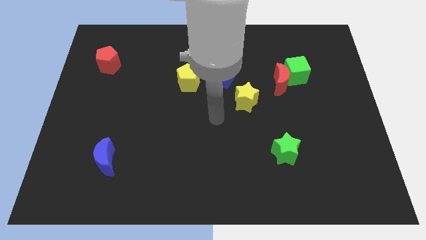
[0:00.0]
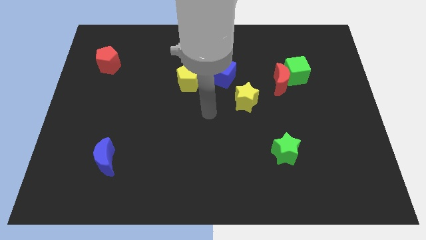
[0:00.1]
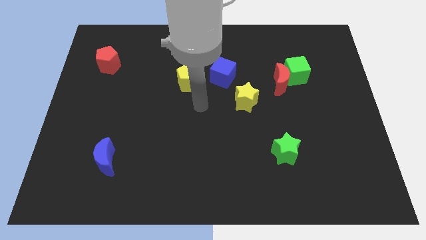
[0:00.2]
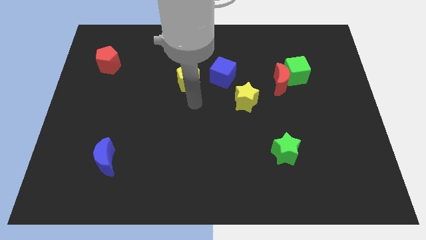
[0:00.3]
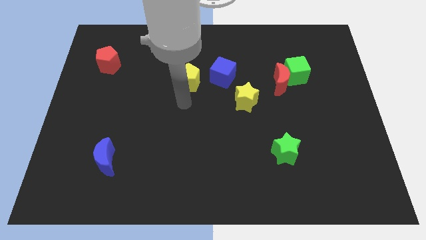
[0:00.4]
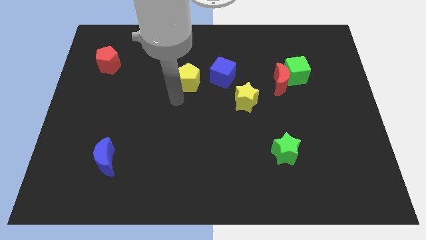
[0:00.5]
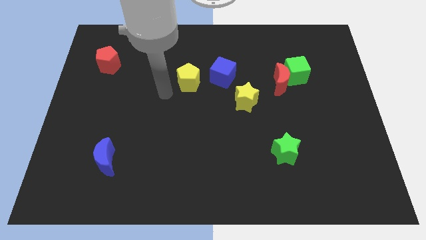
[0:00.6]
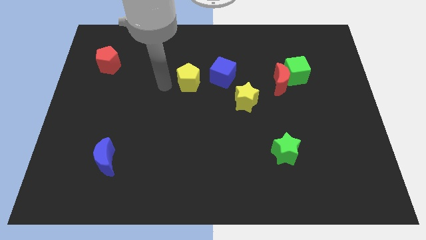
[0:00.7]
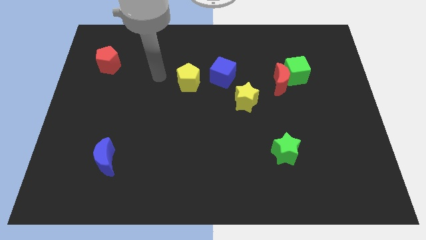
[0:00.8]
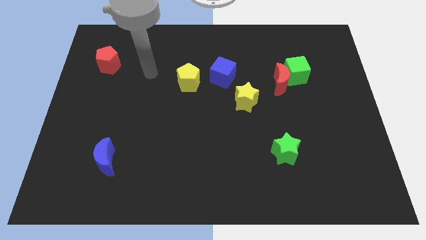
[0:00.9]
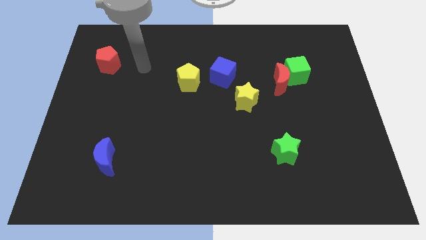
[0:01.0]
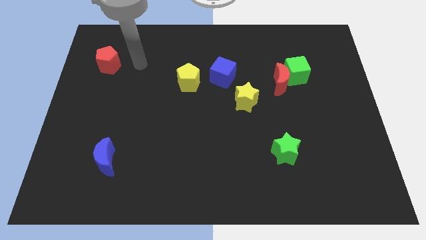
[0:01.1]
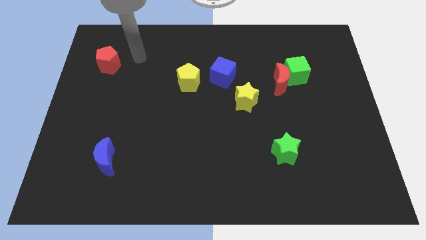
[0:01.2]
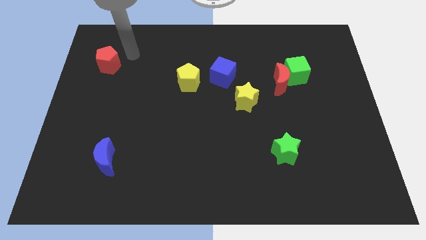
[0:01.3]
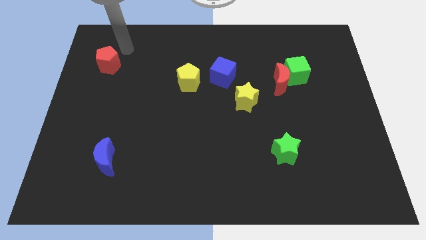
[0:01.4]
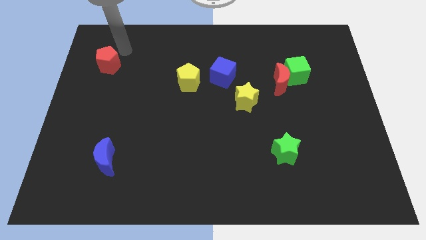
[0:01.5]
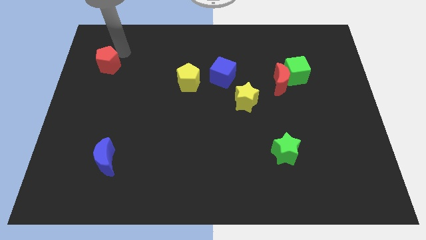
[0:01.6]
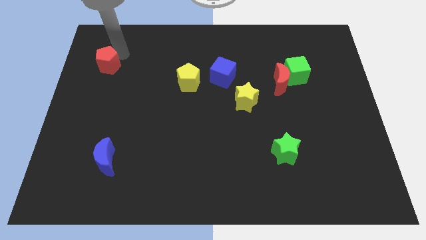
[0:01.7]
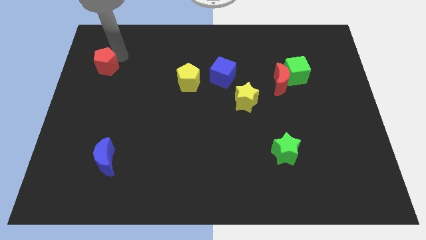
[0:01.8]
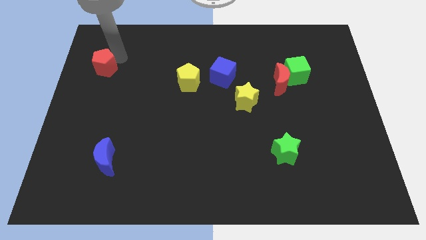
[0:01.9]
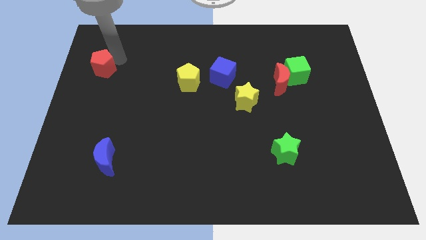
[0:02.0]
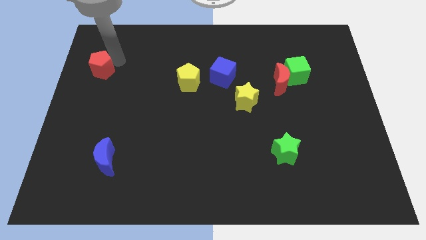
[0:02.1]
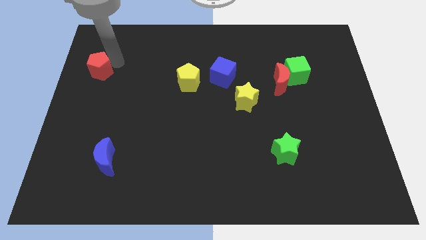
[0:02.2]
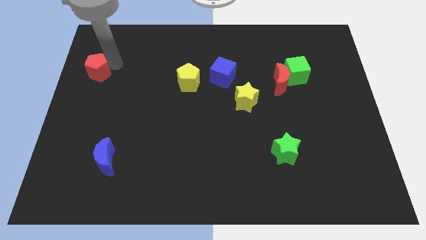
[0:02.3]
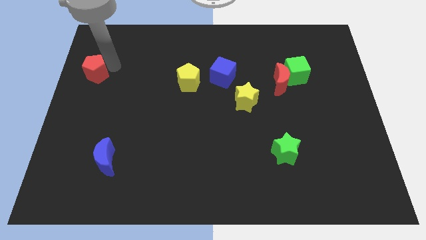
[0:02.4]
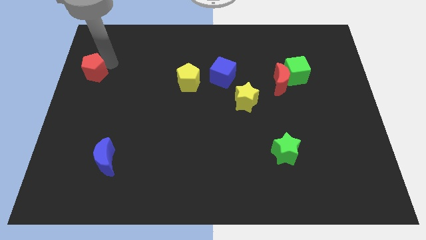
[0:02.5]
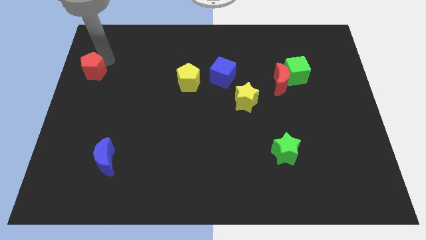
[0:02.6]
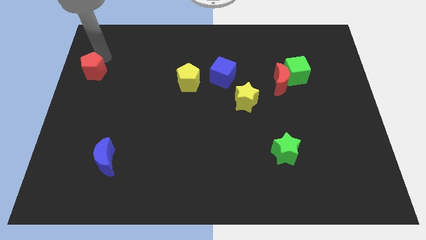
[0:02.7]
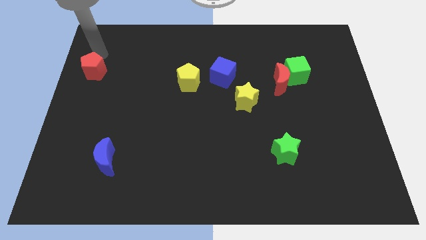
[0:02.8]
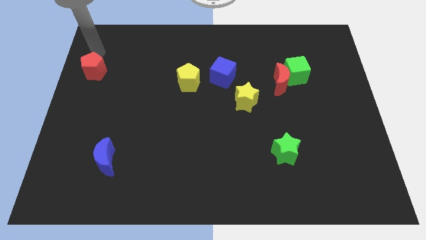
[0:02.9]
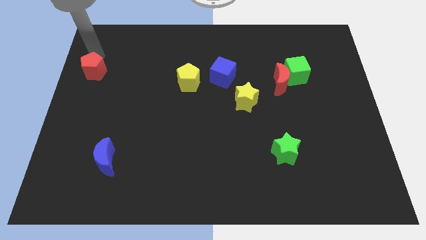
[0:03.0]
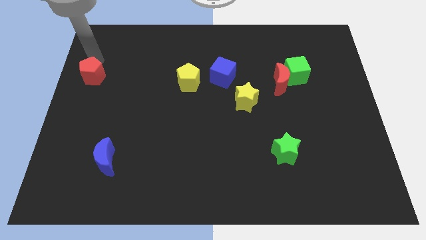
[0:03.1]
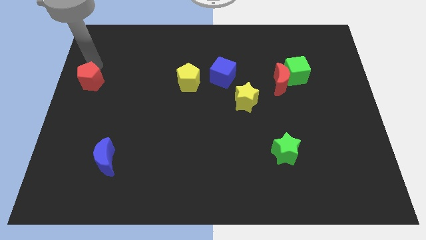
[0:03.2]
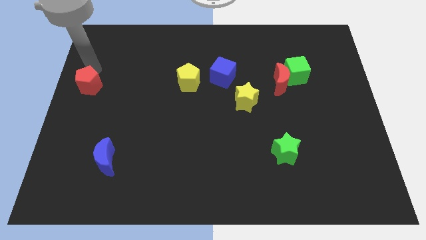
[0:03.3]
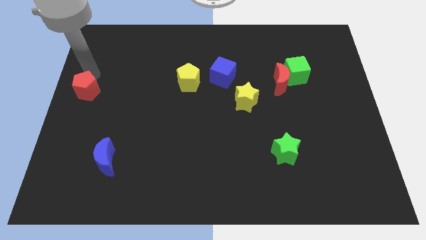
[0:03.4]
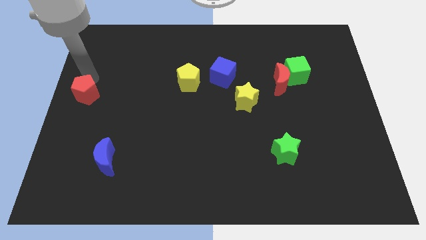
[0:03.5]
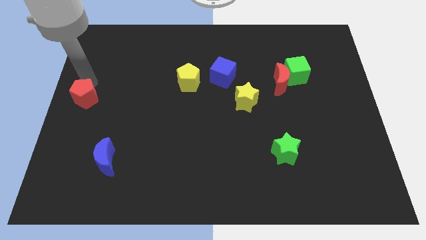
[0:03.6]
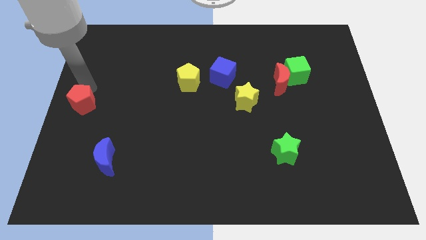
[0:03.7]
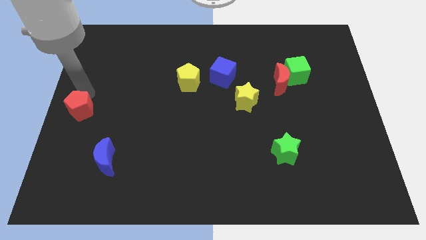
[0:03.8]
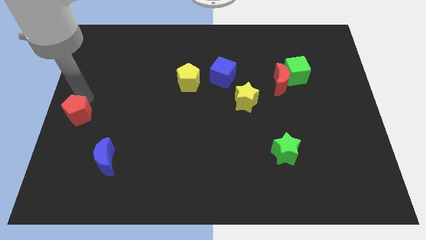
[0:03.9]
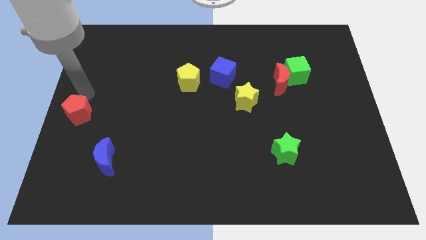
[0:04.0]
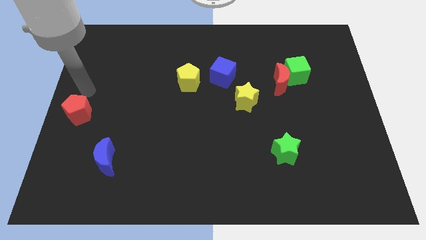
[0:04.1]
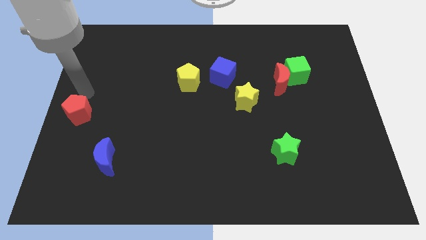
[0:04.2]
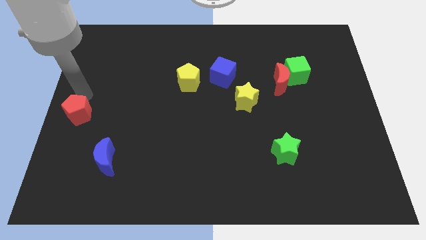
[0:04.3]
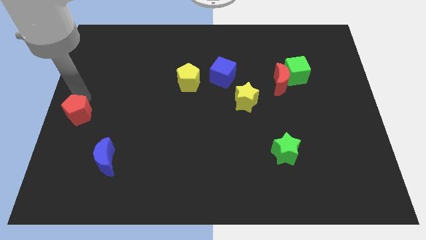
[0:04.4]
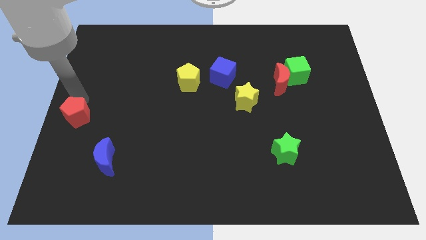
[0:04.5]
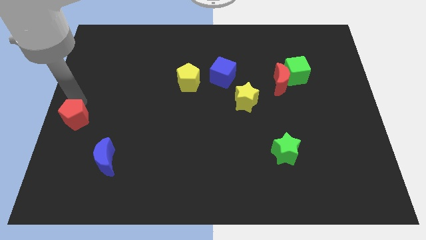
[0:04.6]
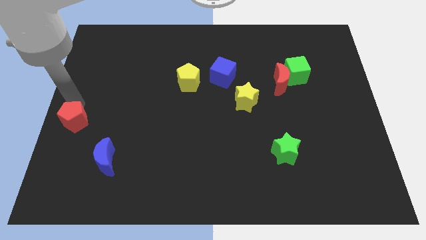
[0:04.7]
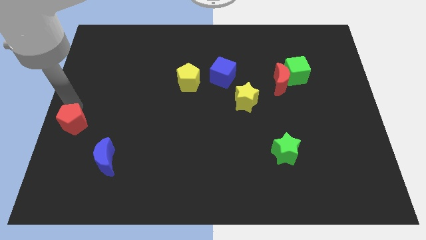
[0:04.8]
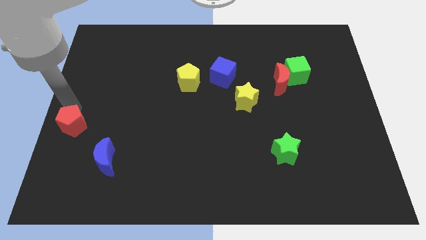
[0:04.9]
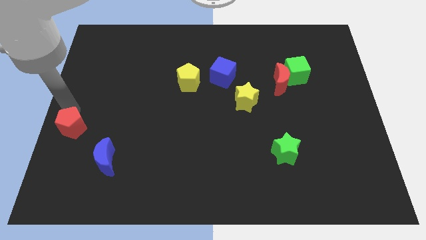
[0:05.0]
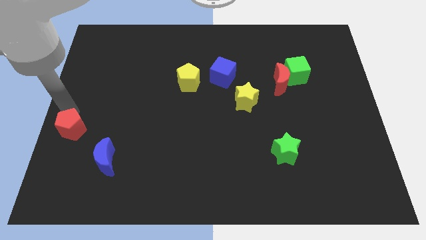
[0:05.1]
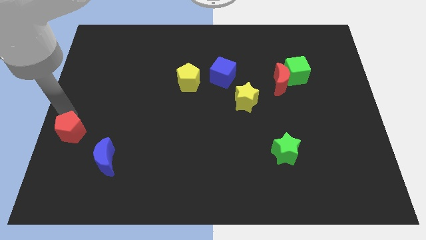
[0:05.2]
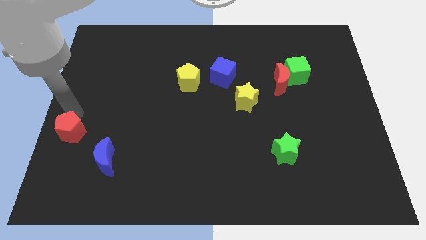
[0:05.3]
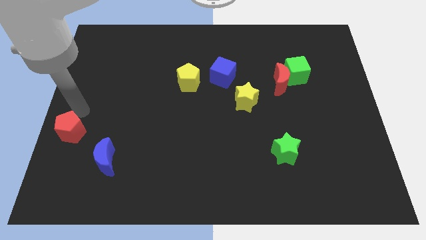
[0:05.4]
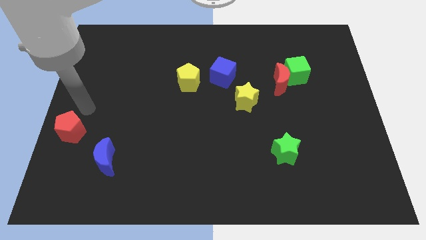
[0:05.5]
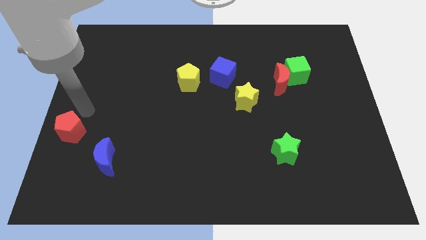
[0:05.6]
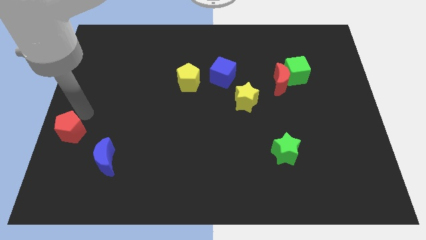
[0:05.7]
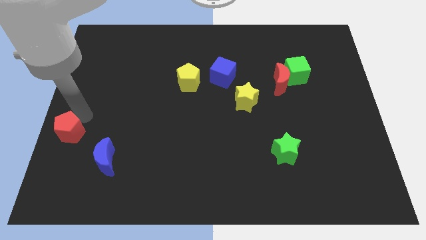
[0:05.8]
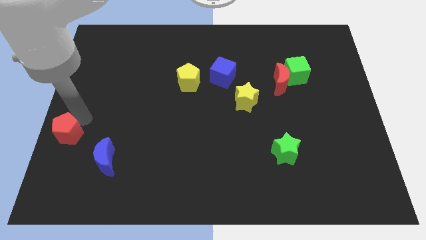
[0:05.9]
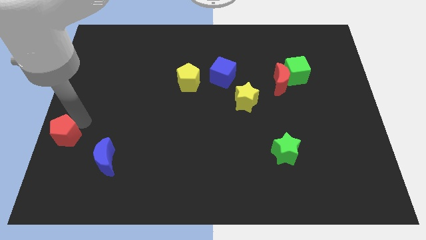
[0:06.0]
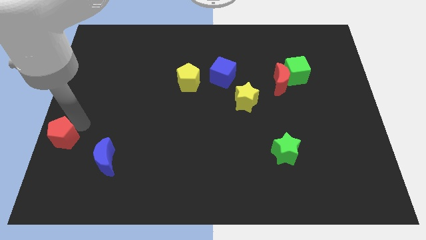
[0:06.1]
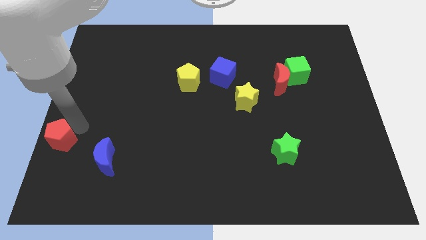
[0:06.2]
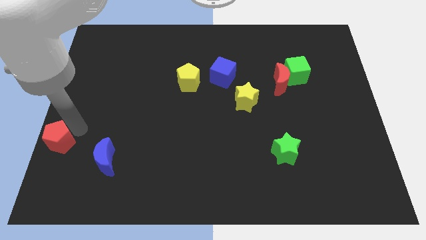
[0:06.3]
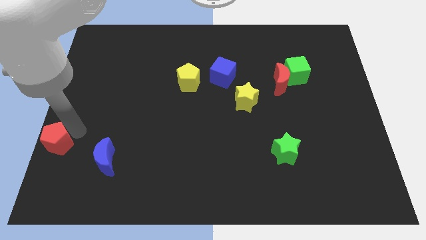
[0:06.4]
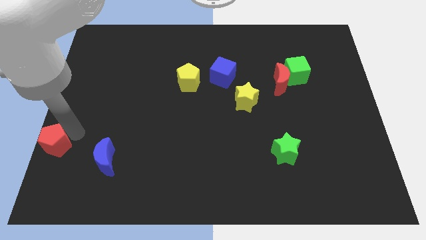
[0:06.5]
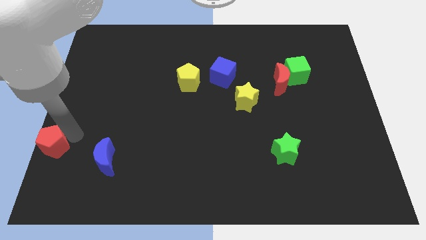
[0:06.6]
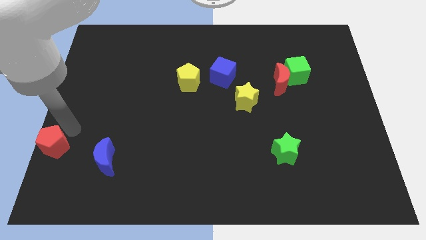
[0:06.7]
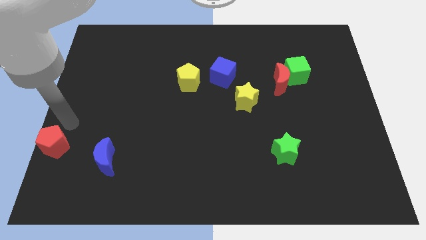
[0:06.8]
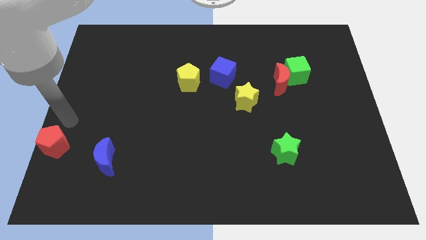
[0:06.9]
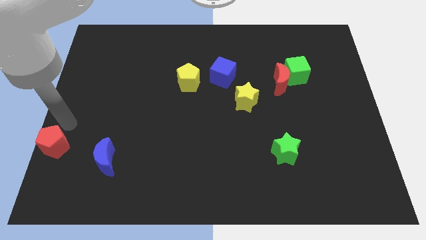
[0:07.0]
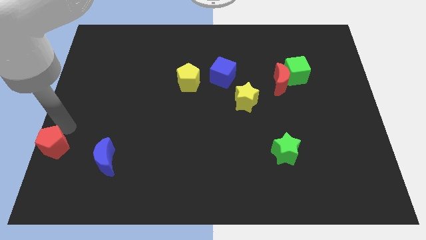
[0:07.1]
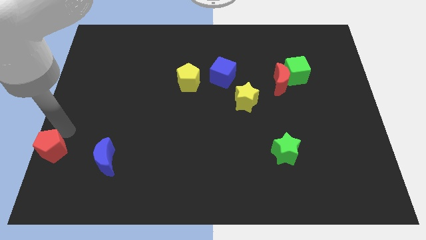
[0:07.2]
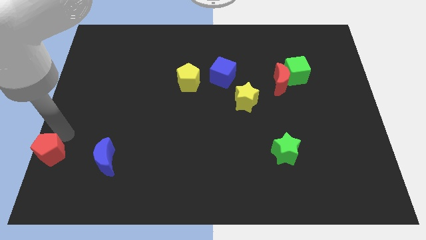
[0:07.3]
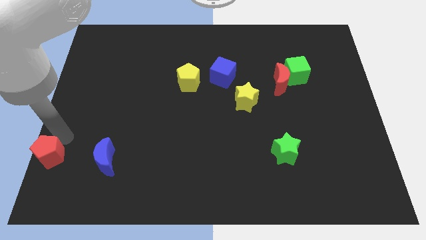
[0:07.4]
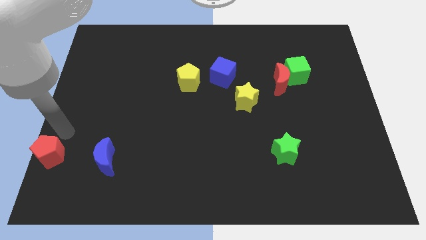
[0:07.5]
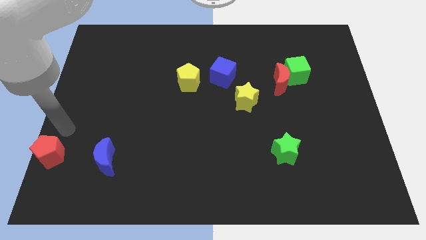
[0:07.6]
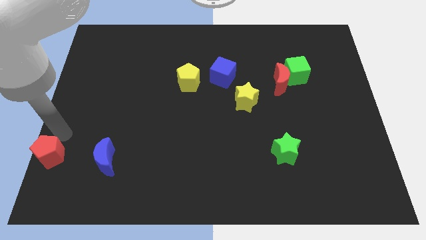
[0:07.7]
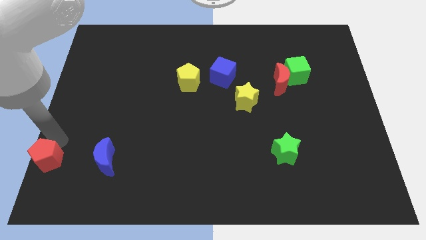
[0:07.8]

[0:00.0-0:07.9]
push the red pentagon to the bottom left of the board
